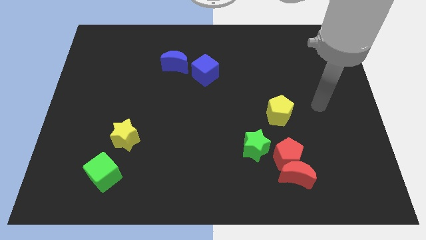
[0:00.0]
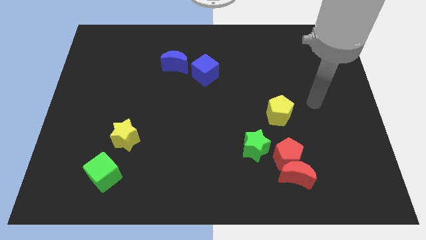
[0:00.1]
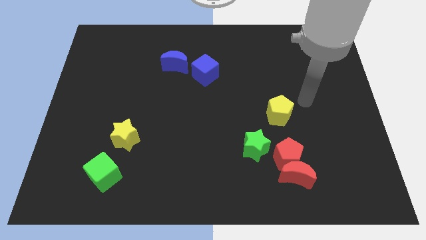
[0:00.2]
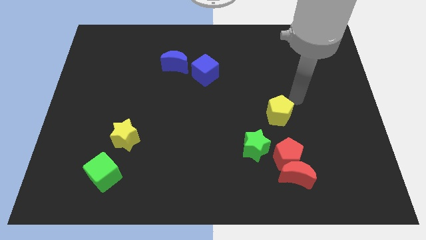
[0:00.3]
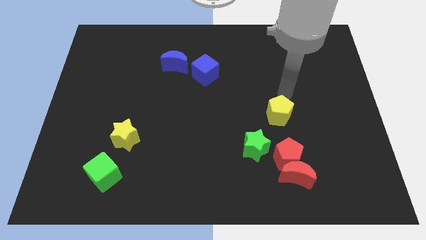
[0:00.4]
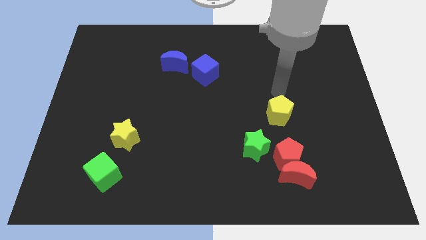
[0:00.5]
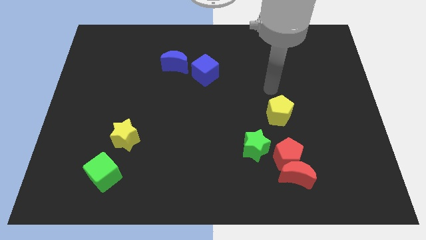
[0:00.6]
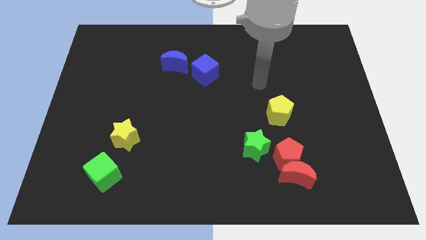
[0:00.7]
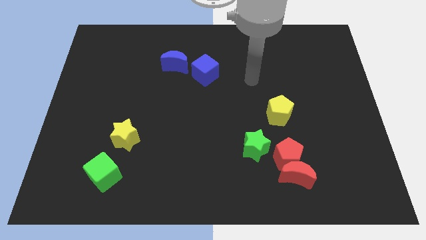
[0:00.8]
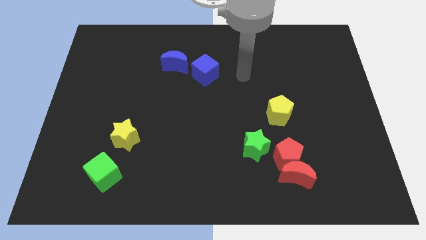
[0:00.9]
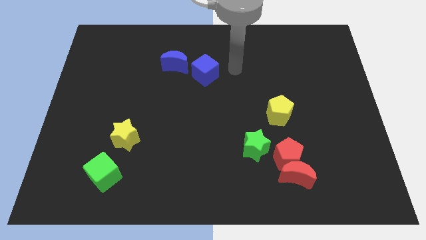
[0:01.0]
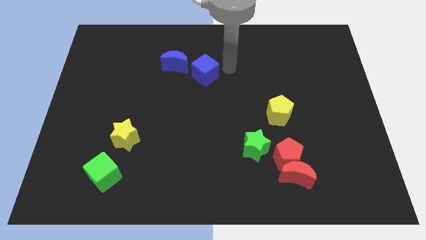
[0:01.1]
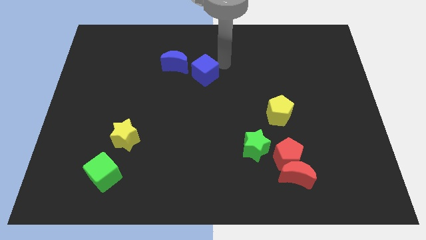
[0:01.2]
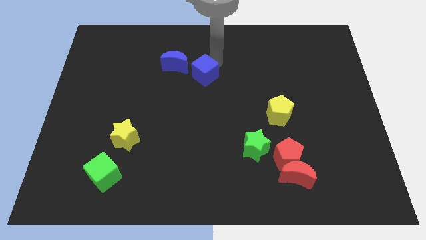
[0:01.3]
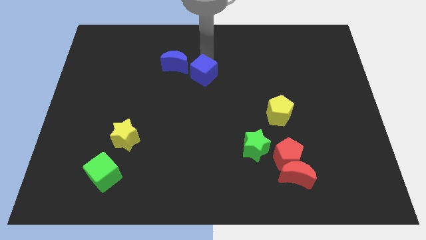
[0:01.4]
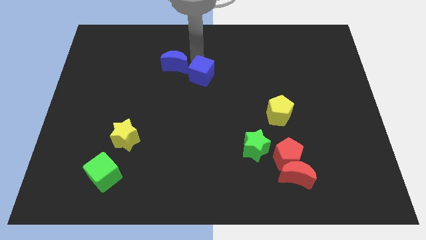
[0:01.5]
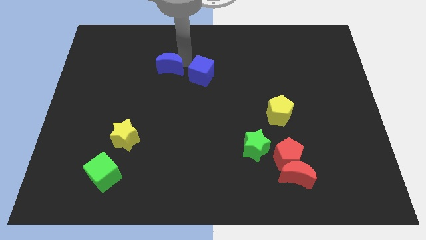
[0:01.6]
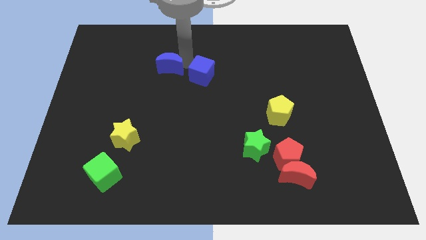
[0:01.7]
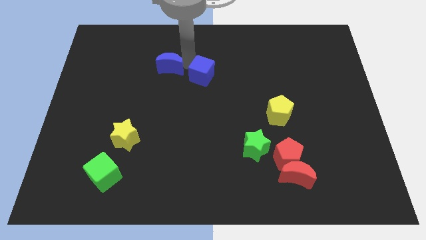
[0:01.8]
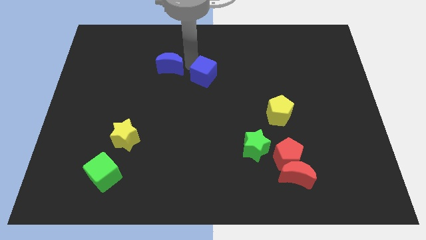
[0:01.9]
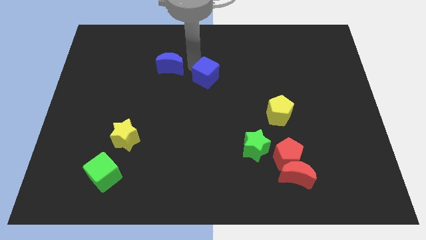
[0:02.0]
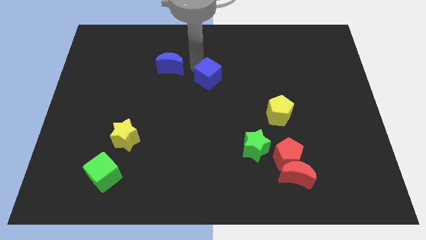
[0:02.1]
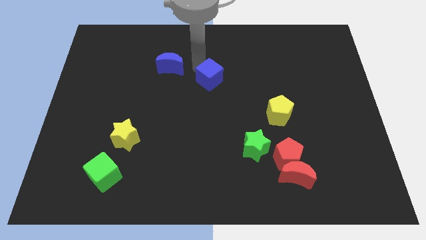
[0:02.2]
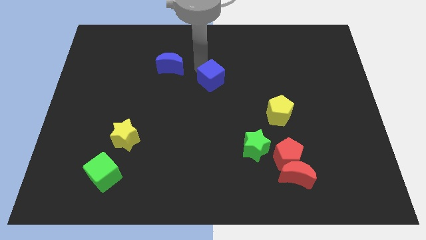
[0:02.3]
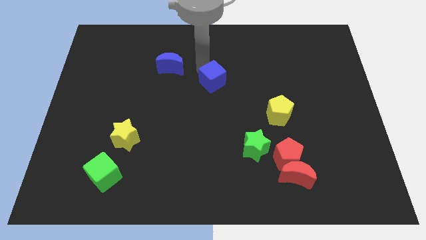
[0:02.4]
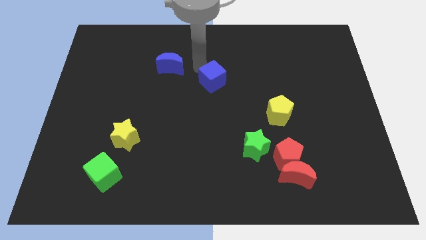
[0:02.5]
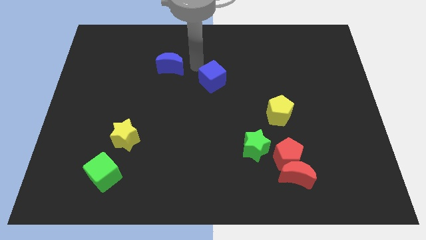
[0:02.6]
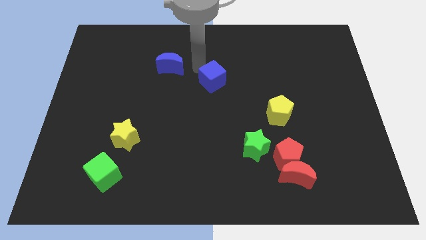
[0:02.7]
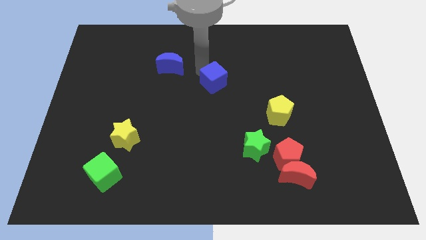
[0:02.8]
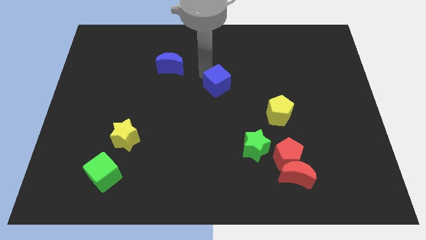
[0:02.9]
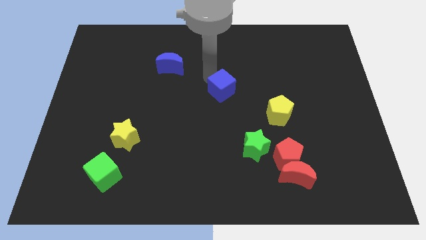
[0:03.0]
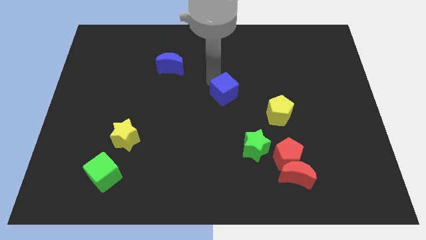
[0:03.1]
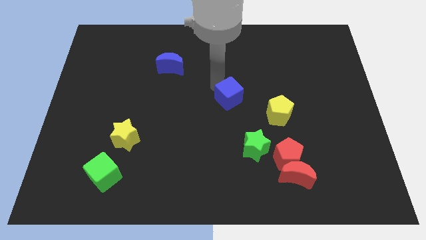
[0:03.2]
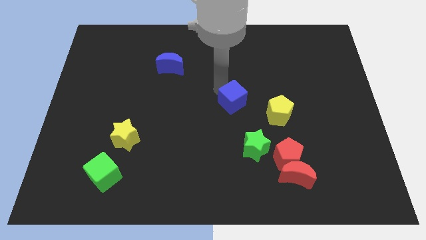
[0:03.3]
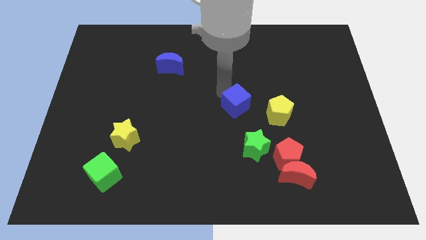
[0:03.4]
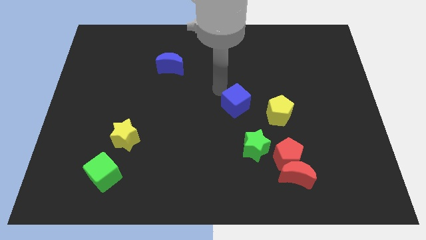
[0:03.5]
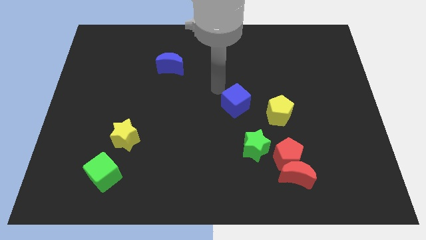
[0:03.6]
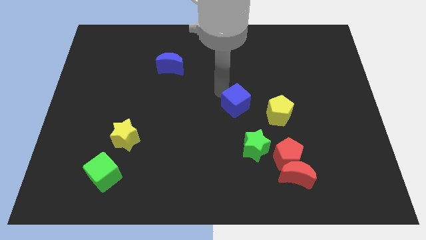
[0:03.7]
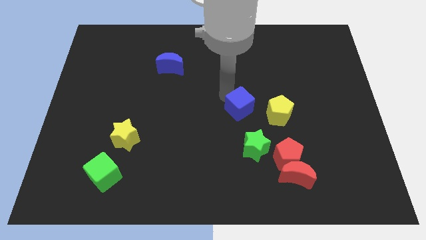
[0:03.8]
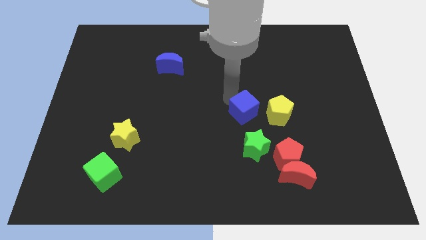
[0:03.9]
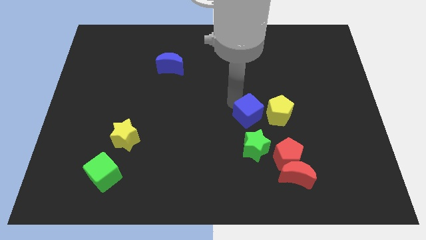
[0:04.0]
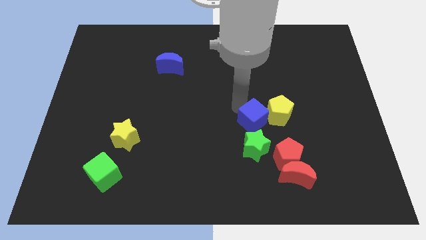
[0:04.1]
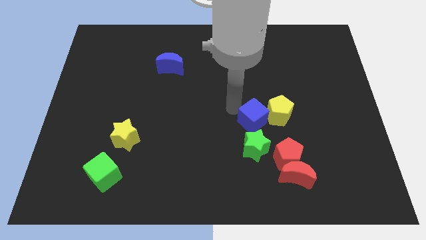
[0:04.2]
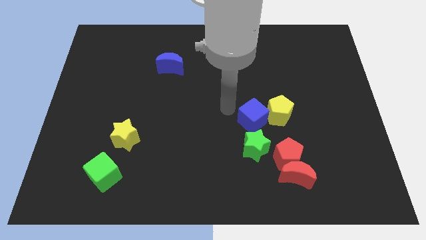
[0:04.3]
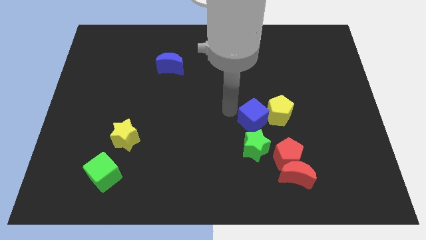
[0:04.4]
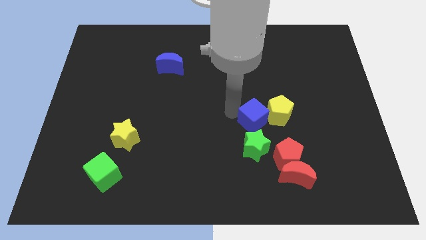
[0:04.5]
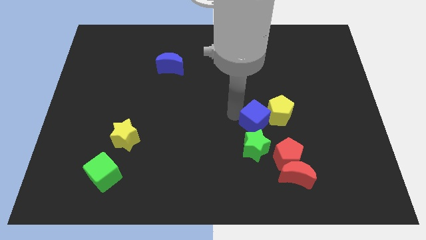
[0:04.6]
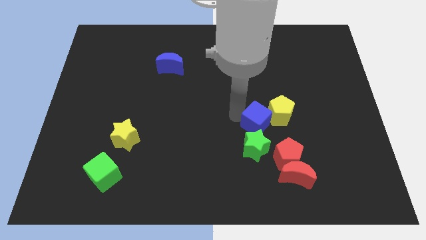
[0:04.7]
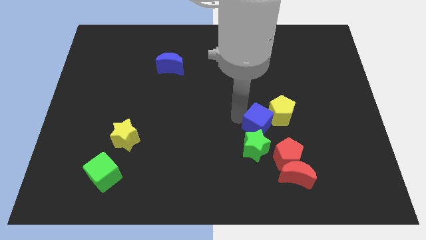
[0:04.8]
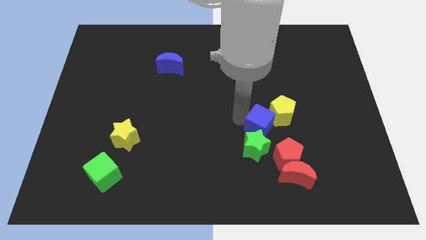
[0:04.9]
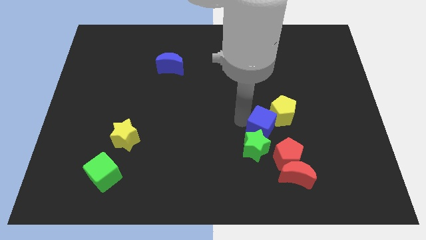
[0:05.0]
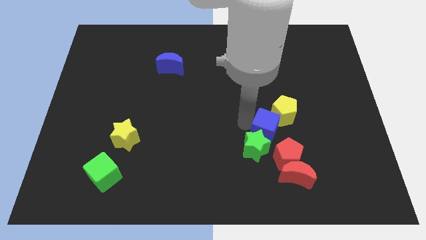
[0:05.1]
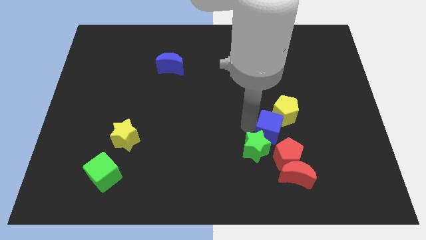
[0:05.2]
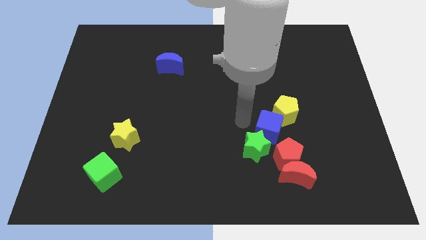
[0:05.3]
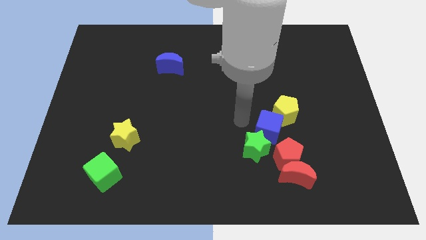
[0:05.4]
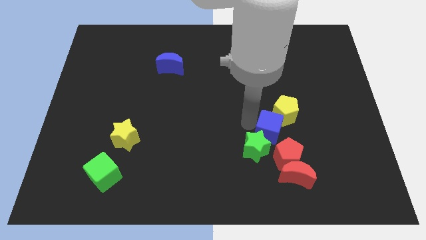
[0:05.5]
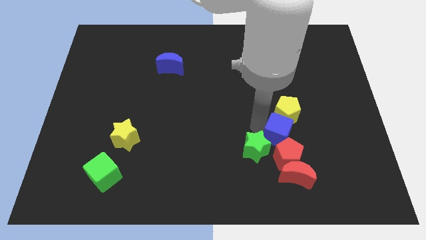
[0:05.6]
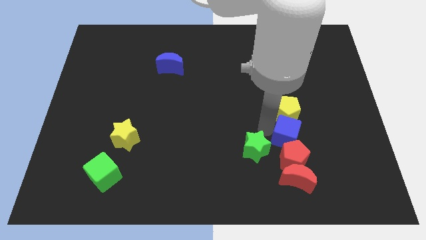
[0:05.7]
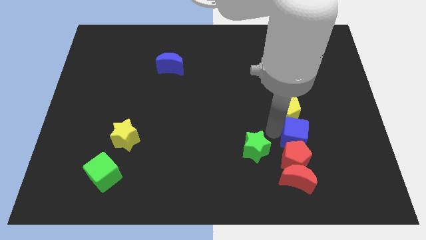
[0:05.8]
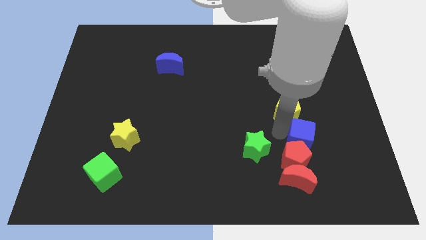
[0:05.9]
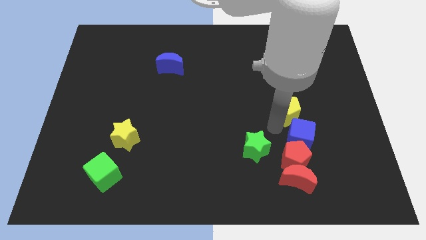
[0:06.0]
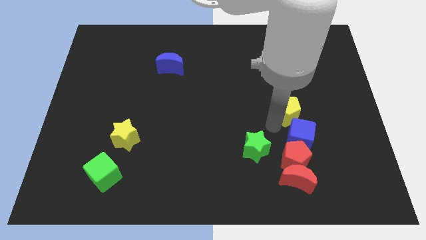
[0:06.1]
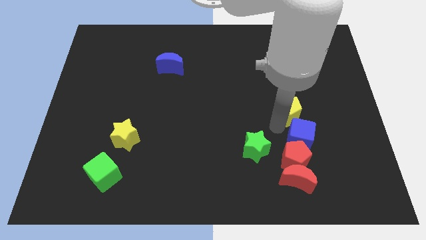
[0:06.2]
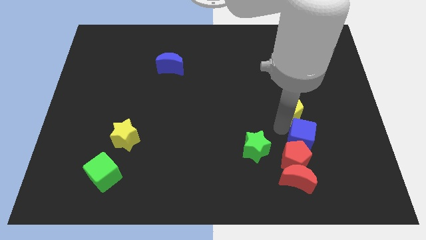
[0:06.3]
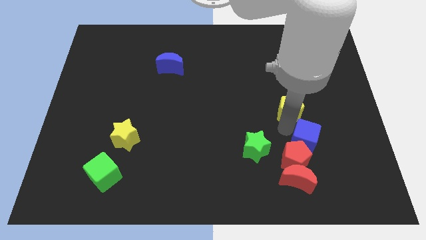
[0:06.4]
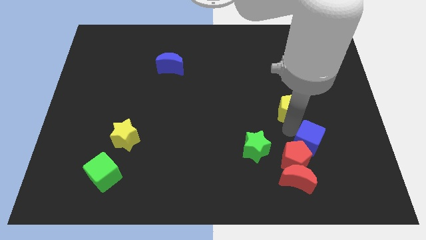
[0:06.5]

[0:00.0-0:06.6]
push the blue cube right of the red pentagon

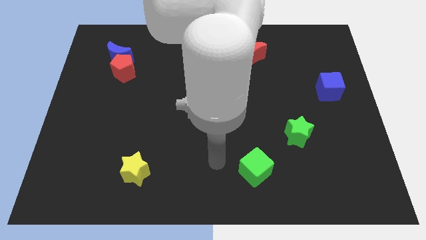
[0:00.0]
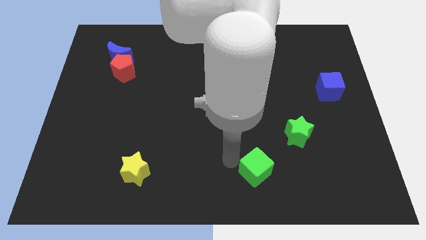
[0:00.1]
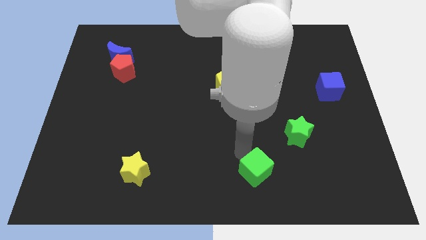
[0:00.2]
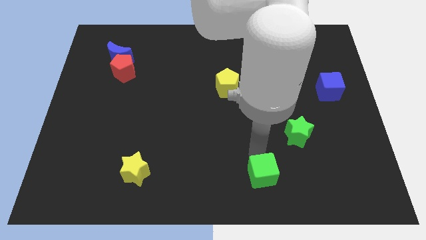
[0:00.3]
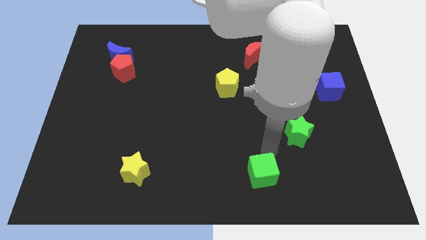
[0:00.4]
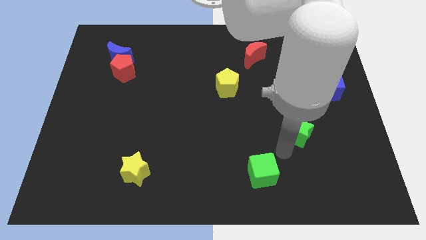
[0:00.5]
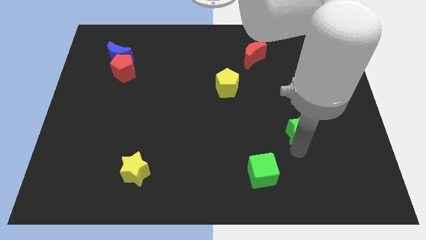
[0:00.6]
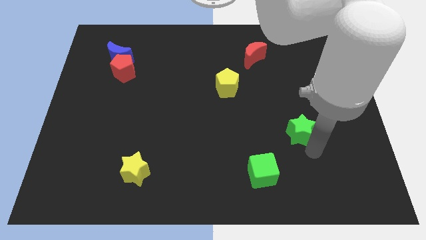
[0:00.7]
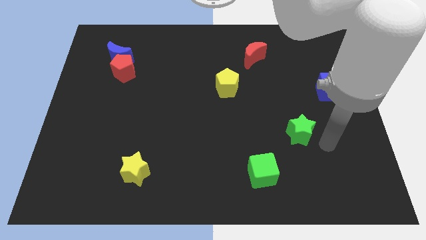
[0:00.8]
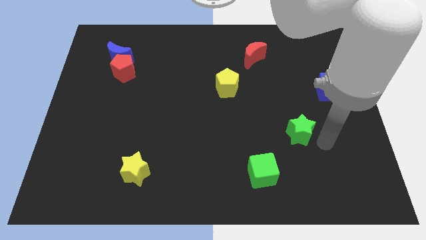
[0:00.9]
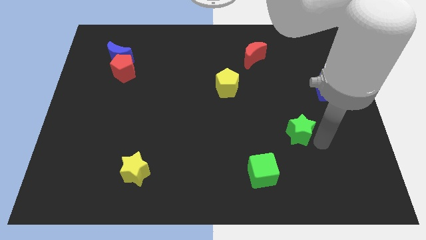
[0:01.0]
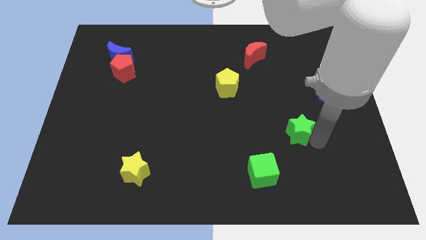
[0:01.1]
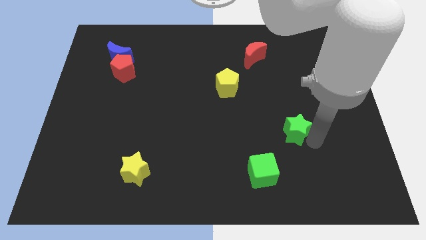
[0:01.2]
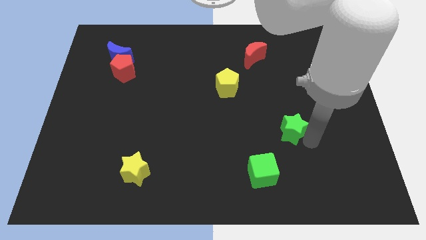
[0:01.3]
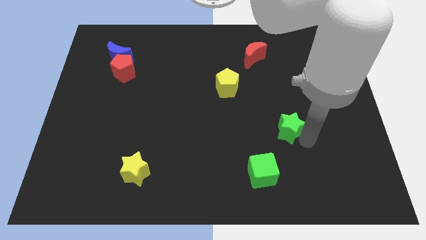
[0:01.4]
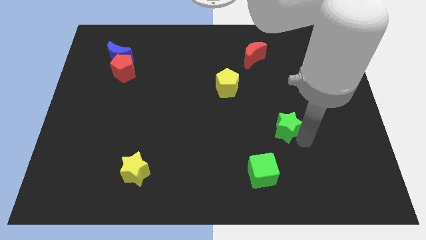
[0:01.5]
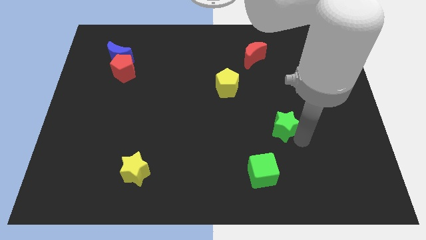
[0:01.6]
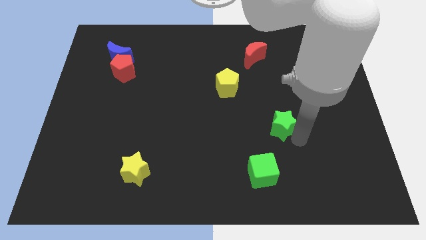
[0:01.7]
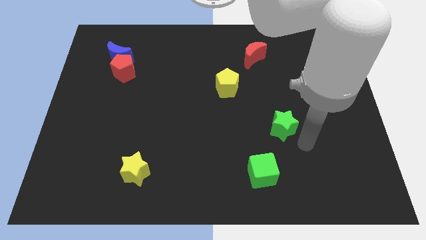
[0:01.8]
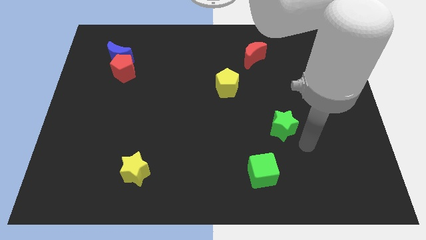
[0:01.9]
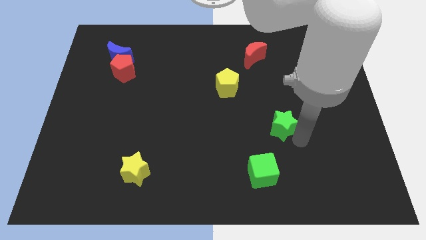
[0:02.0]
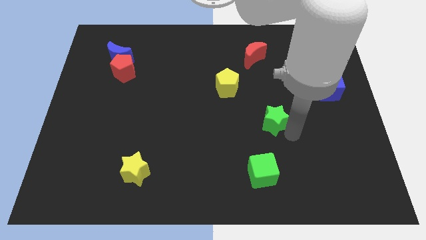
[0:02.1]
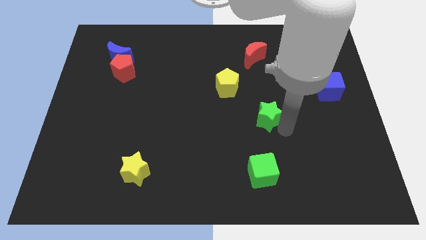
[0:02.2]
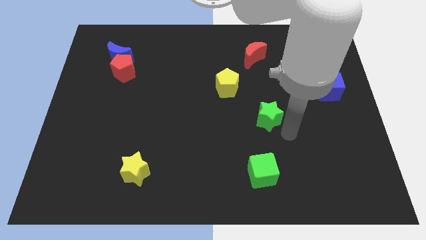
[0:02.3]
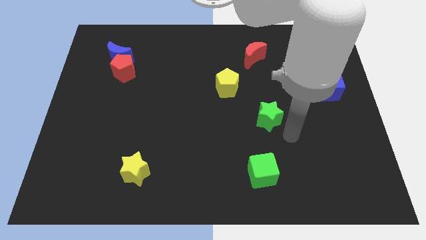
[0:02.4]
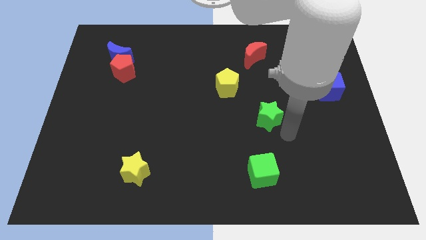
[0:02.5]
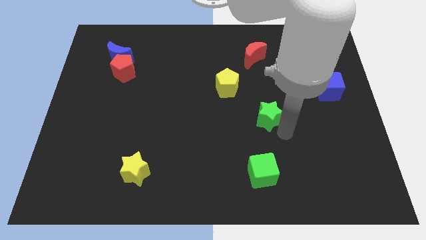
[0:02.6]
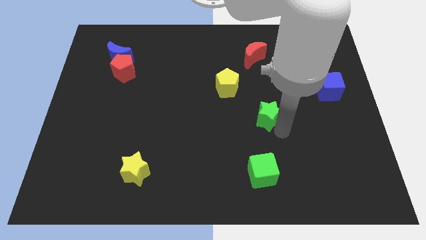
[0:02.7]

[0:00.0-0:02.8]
slide the green star diagonally down and to the right of the yellow pentagon
